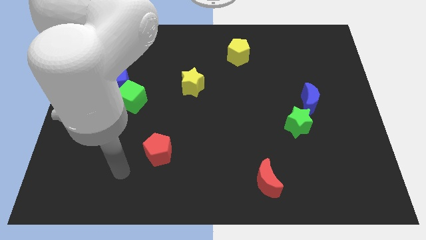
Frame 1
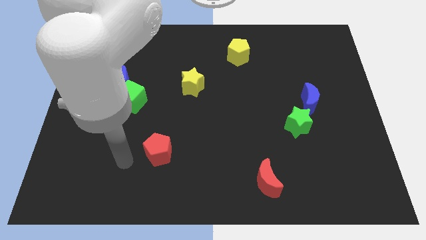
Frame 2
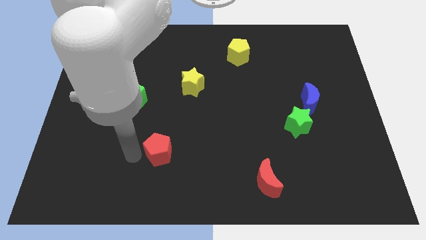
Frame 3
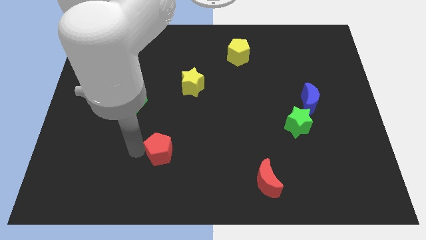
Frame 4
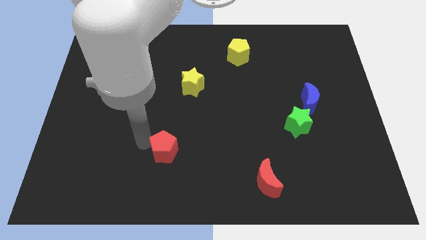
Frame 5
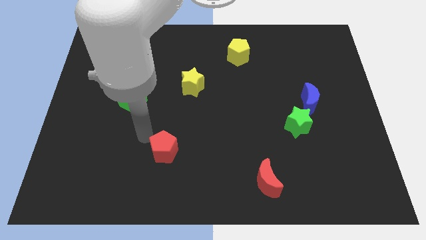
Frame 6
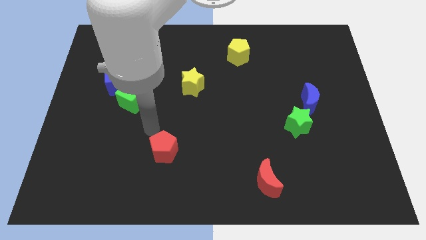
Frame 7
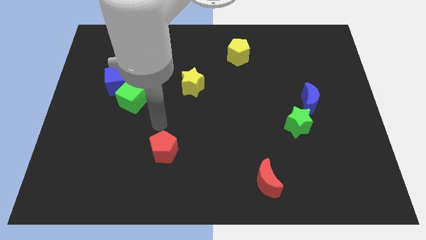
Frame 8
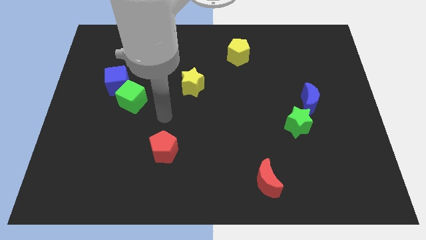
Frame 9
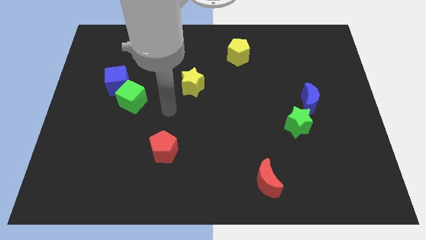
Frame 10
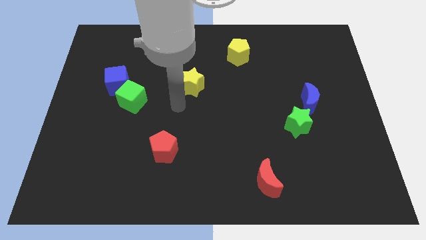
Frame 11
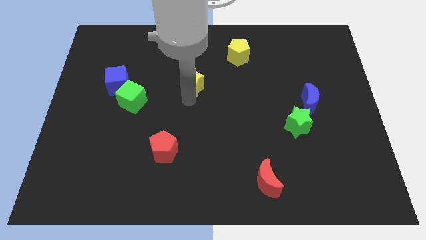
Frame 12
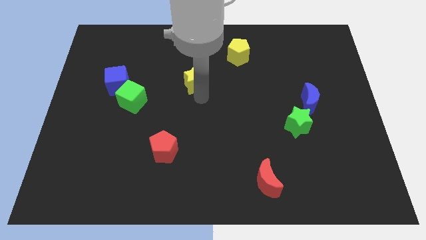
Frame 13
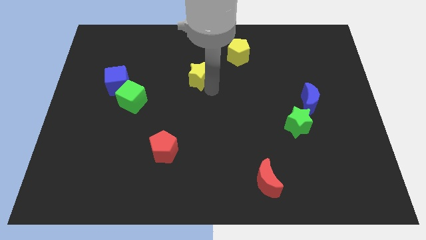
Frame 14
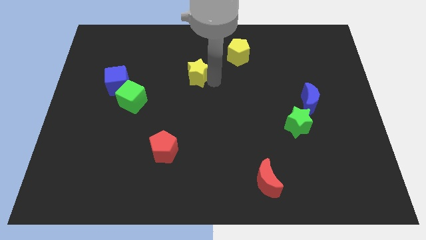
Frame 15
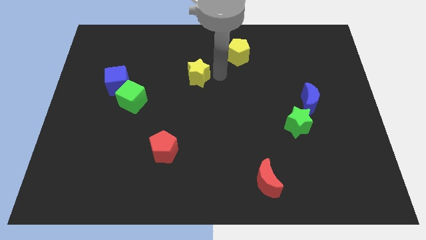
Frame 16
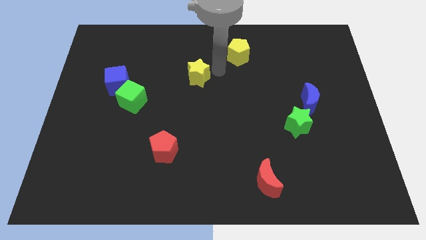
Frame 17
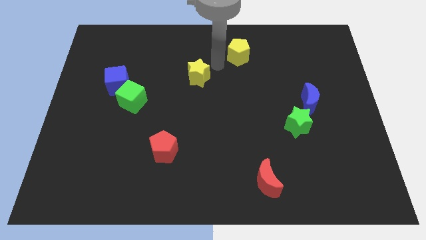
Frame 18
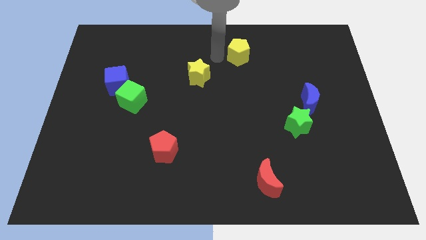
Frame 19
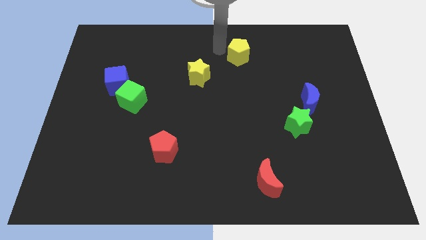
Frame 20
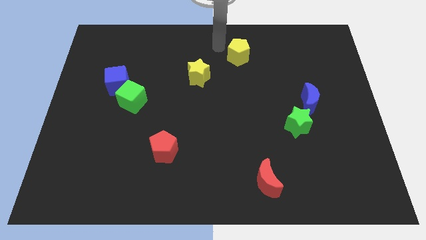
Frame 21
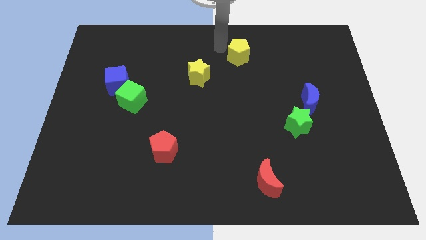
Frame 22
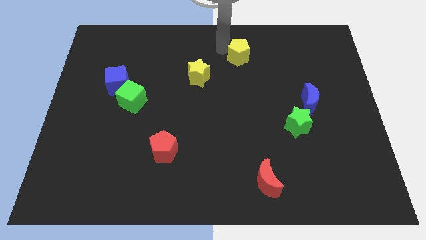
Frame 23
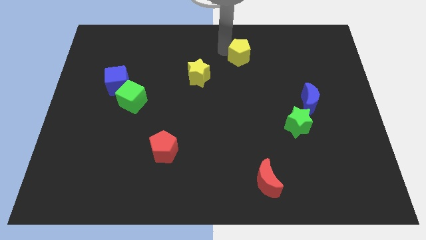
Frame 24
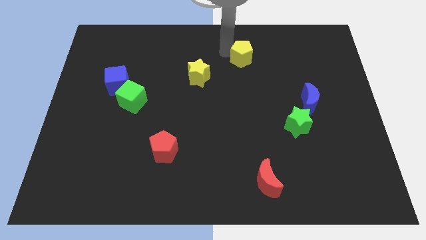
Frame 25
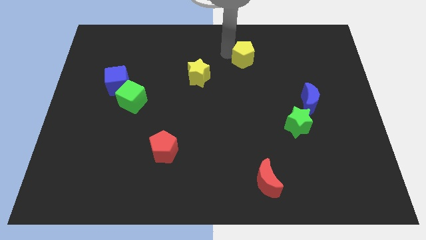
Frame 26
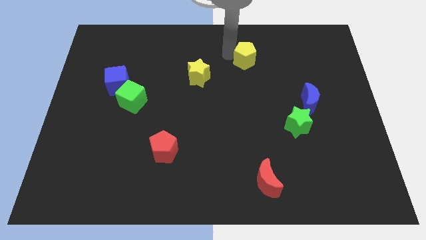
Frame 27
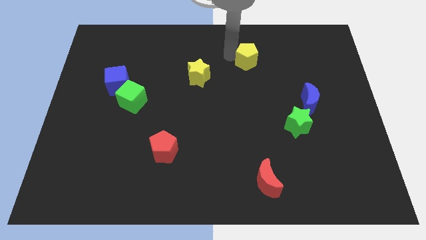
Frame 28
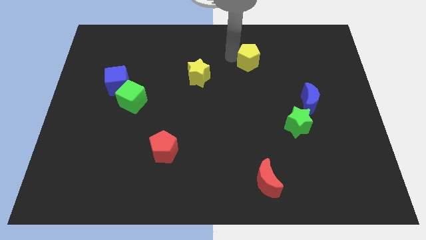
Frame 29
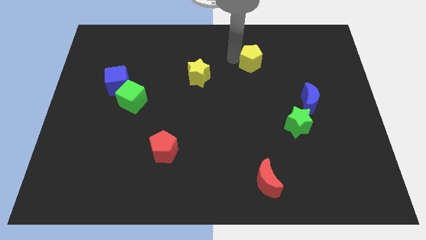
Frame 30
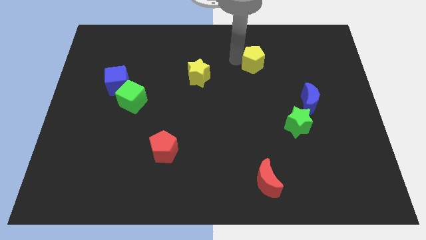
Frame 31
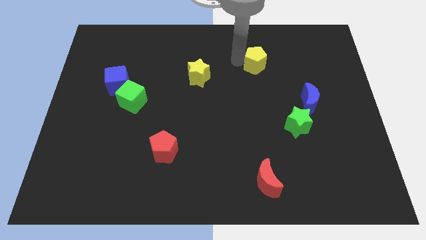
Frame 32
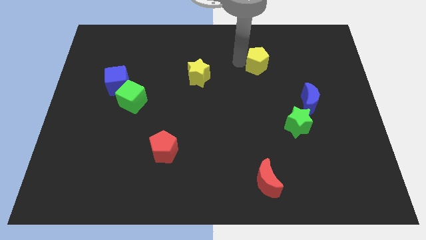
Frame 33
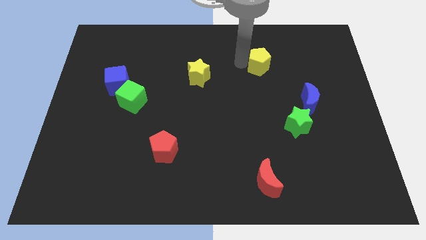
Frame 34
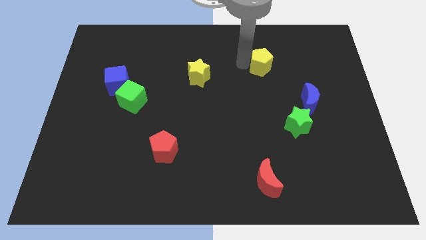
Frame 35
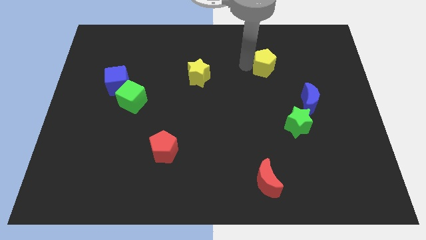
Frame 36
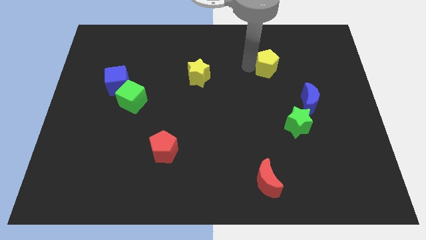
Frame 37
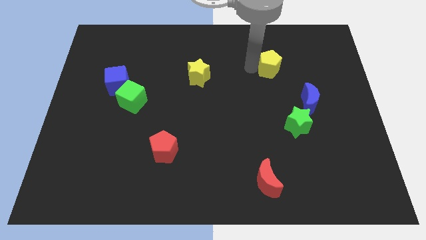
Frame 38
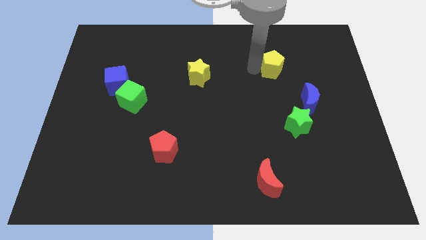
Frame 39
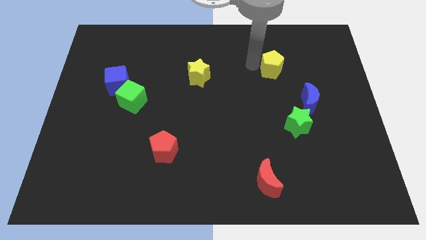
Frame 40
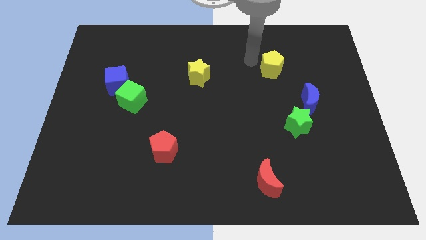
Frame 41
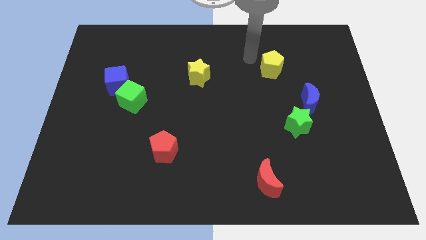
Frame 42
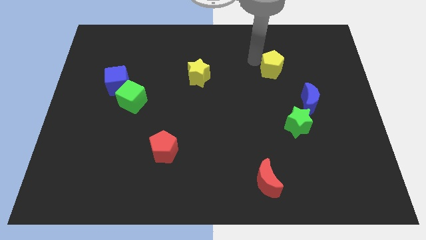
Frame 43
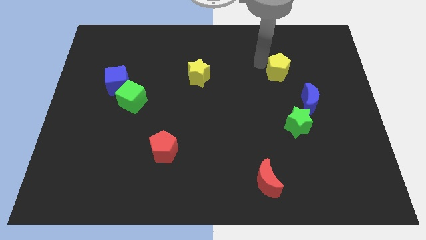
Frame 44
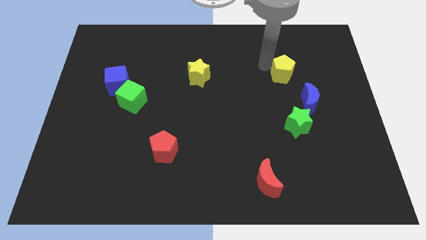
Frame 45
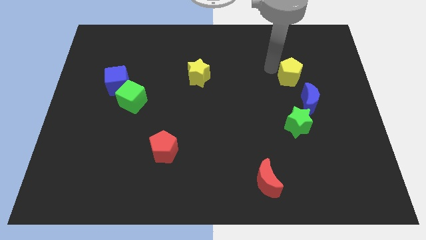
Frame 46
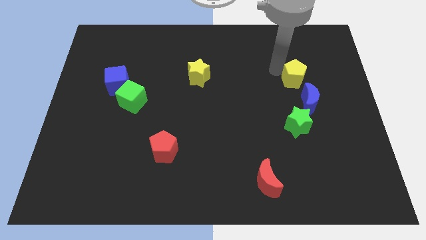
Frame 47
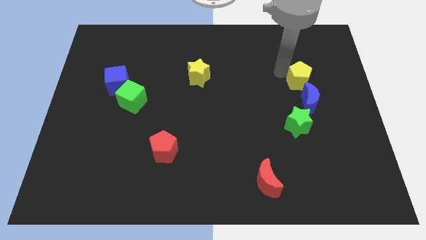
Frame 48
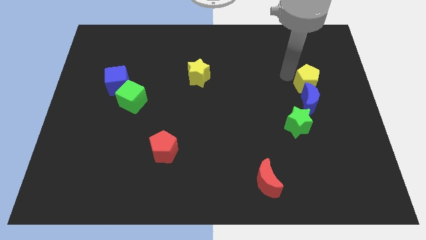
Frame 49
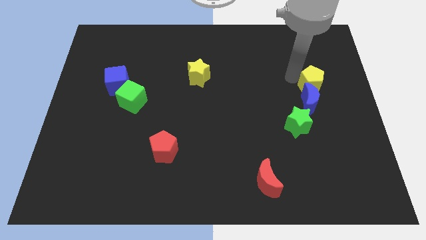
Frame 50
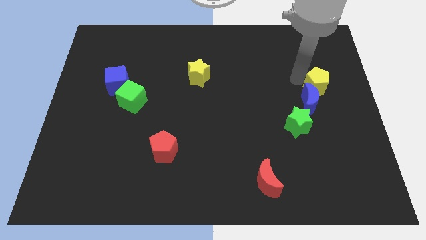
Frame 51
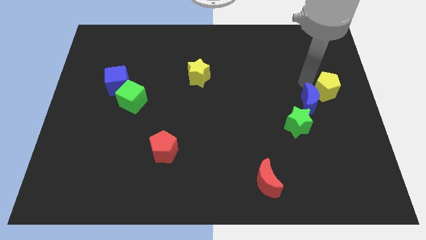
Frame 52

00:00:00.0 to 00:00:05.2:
put the yellow pentagon to the right side

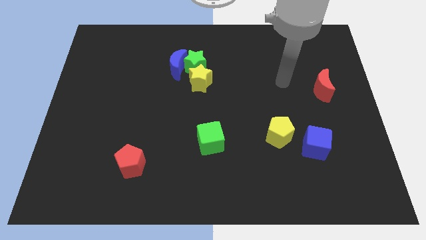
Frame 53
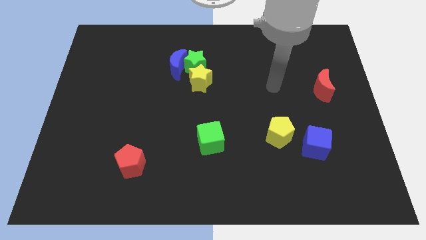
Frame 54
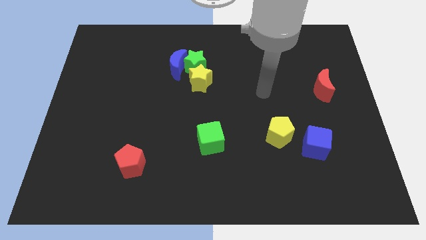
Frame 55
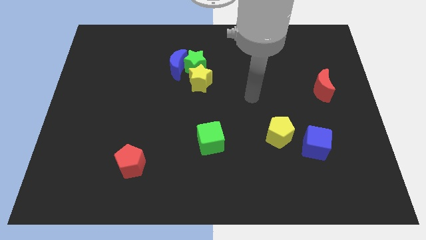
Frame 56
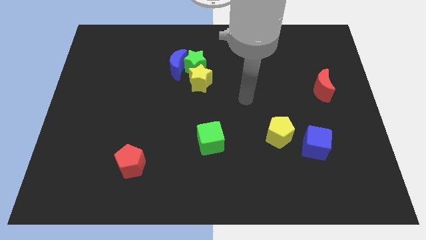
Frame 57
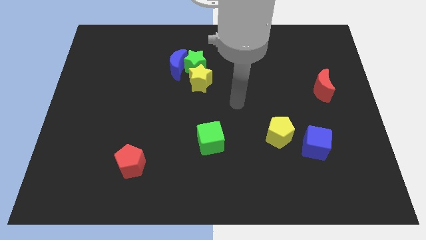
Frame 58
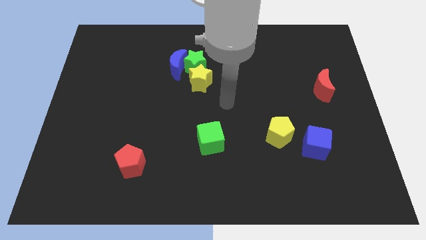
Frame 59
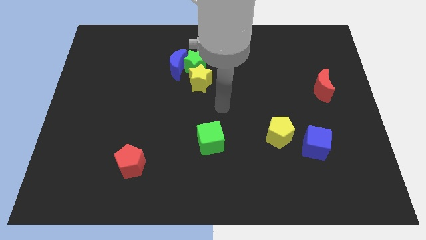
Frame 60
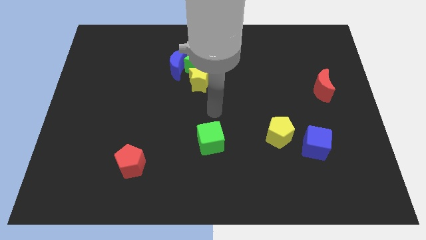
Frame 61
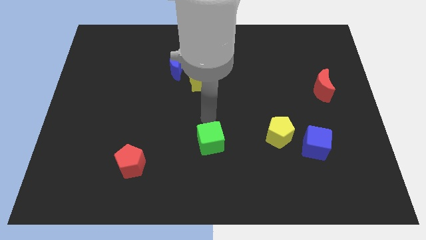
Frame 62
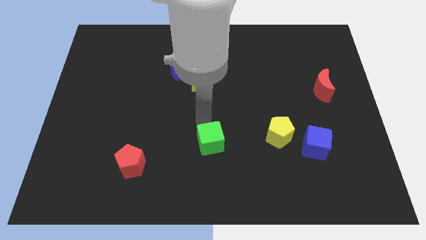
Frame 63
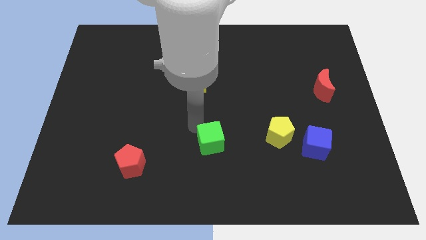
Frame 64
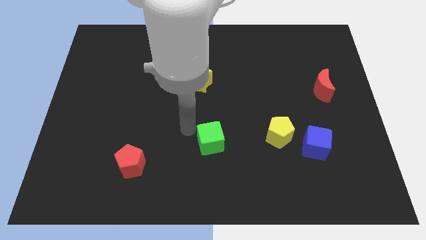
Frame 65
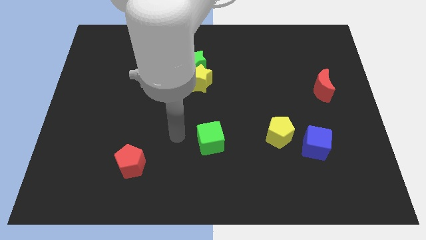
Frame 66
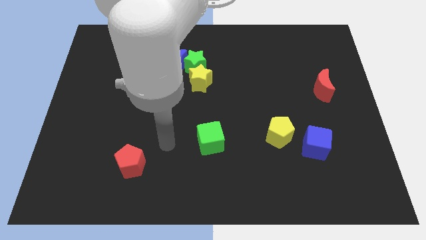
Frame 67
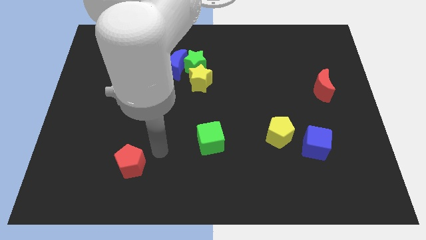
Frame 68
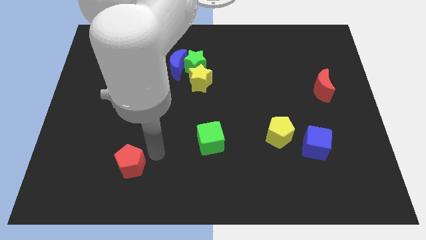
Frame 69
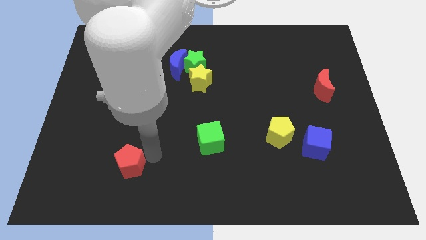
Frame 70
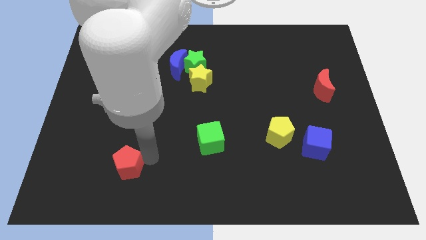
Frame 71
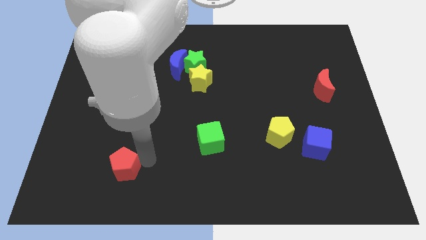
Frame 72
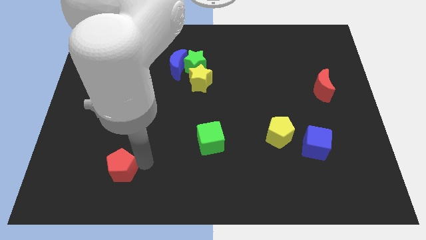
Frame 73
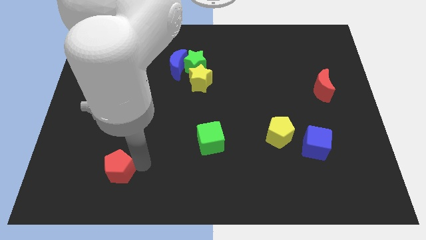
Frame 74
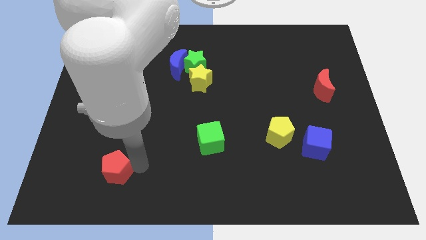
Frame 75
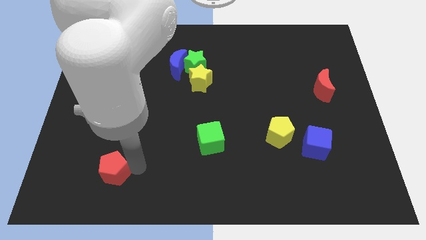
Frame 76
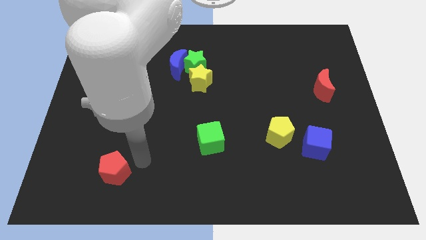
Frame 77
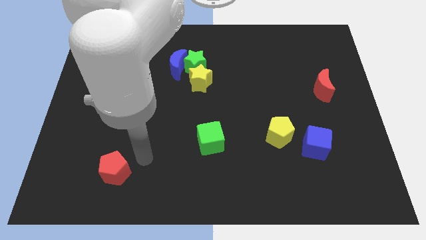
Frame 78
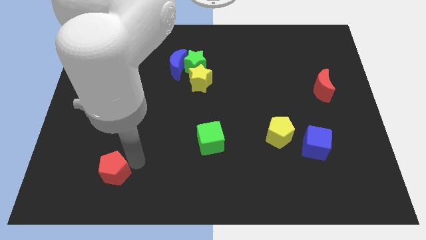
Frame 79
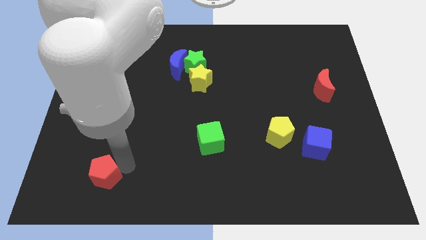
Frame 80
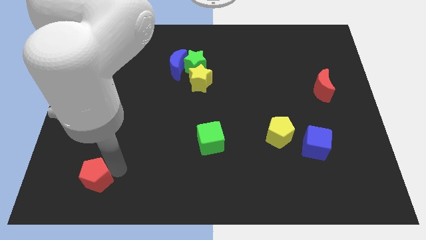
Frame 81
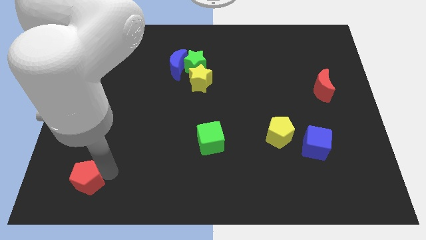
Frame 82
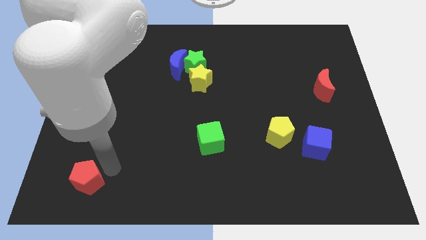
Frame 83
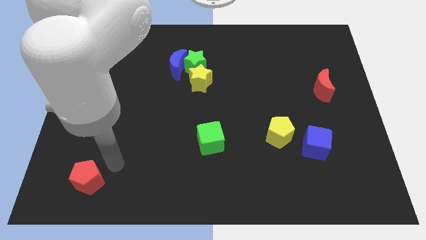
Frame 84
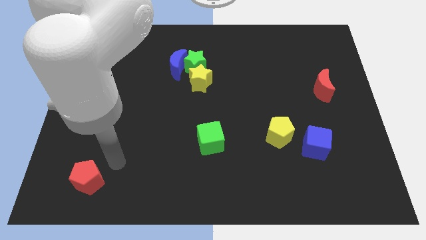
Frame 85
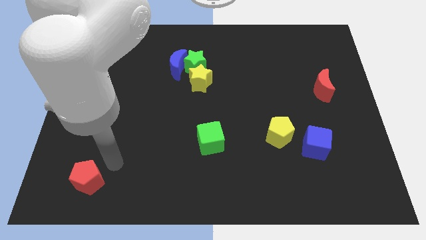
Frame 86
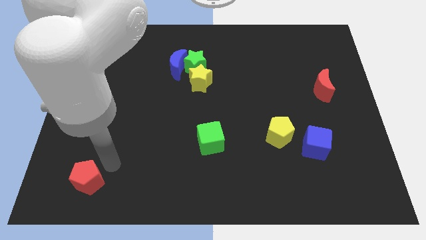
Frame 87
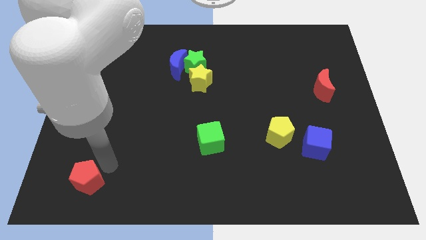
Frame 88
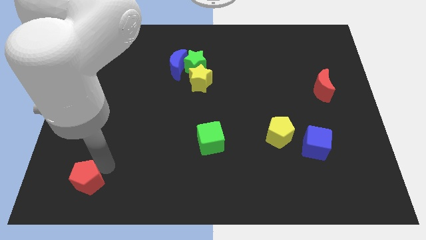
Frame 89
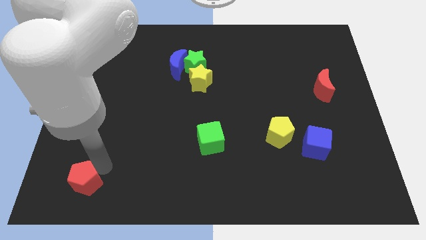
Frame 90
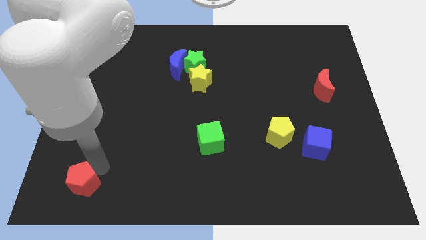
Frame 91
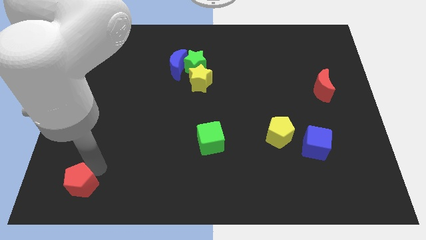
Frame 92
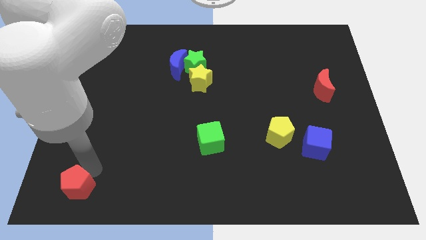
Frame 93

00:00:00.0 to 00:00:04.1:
put the red pentagon to the bottom left of the board
